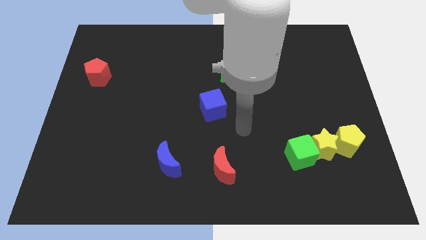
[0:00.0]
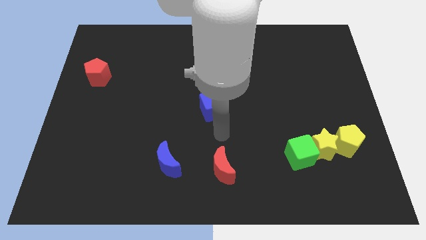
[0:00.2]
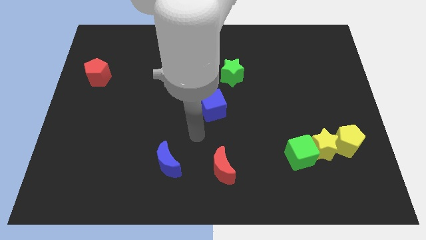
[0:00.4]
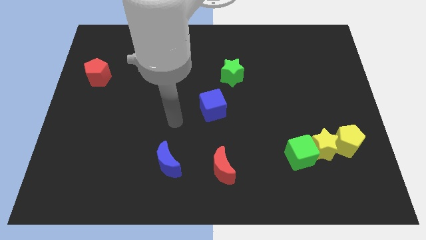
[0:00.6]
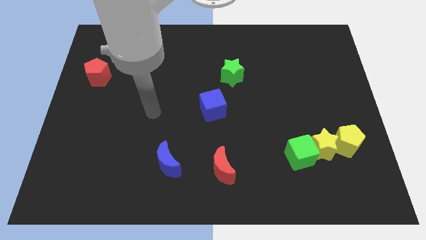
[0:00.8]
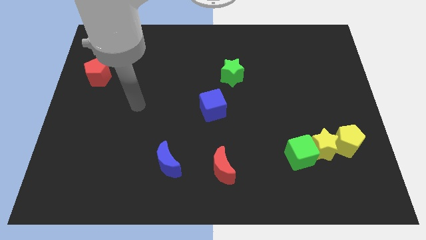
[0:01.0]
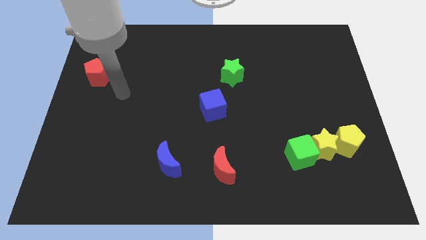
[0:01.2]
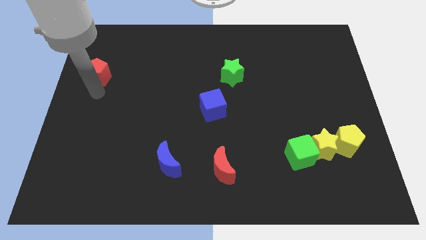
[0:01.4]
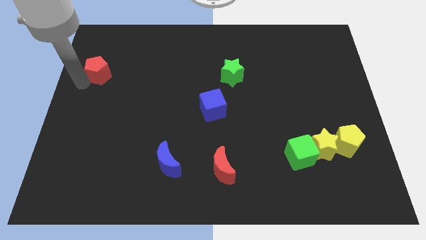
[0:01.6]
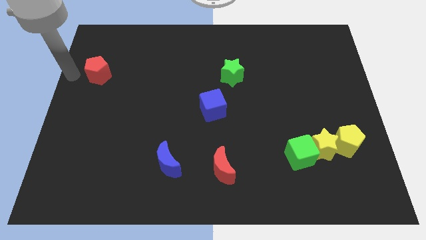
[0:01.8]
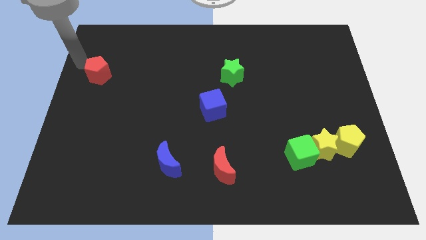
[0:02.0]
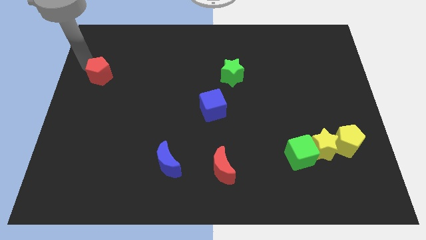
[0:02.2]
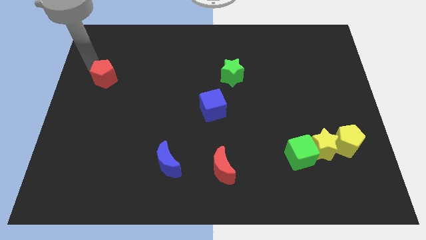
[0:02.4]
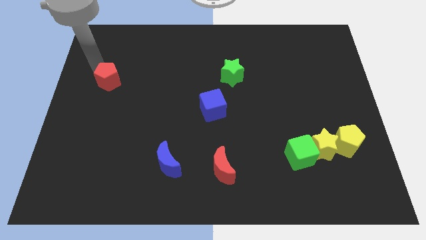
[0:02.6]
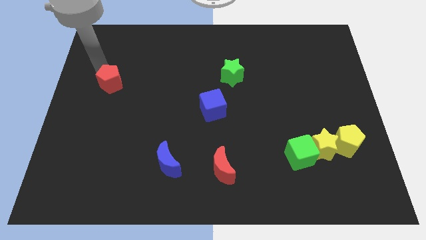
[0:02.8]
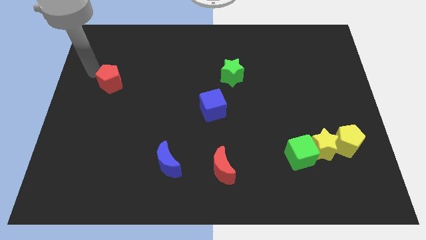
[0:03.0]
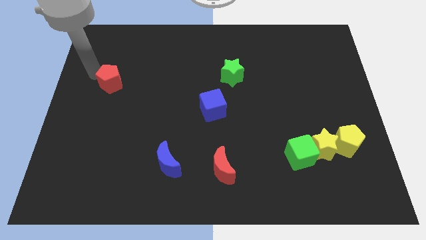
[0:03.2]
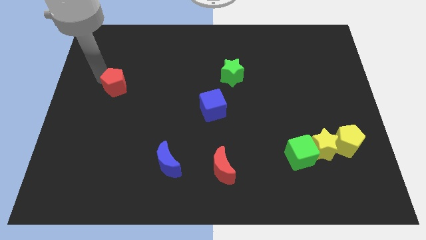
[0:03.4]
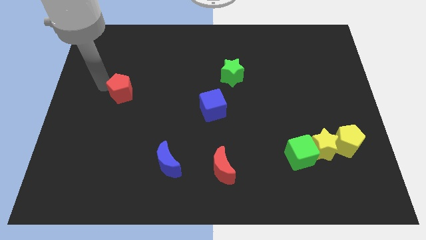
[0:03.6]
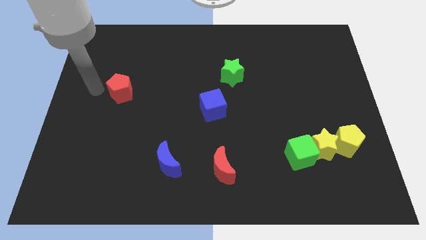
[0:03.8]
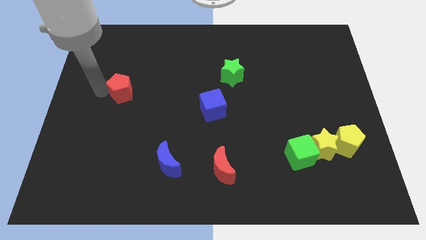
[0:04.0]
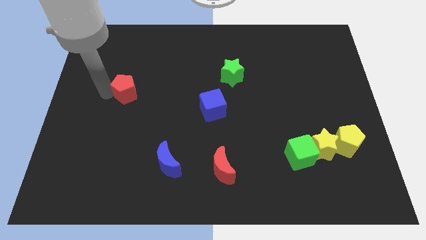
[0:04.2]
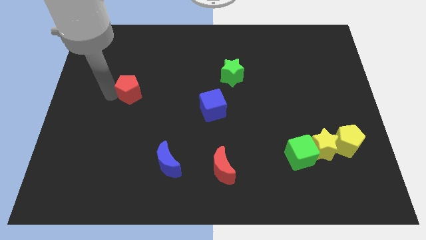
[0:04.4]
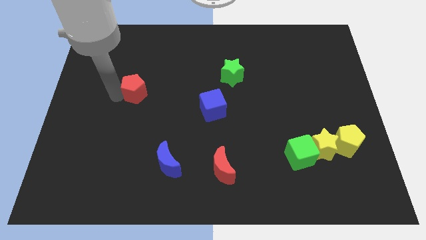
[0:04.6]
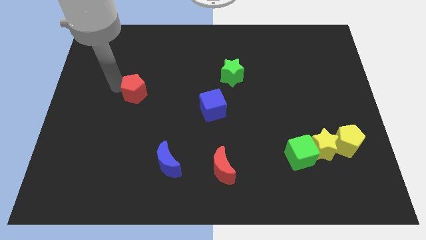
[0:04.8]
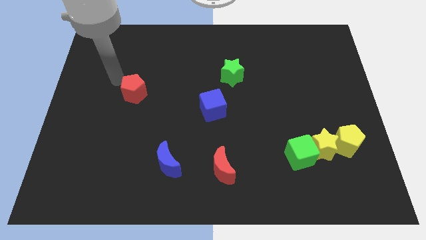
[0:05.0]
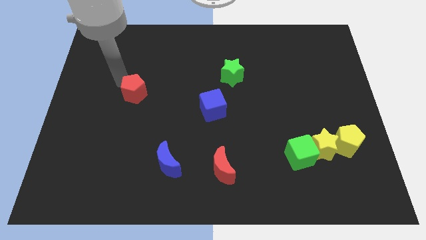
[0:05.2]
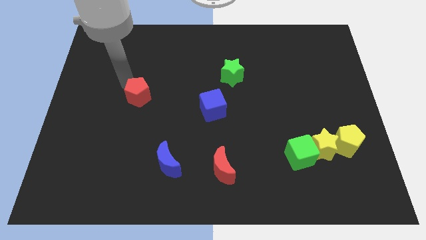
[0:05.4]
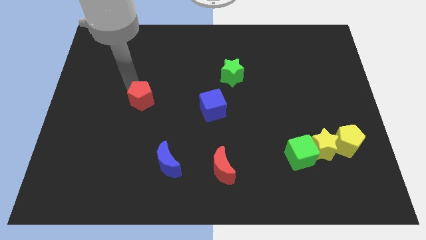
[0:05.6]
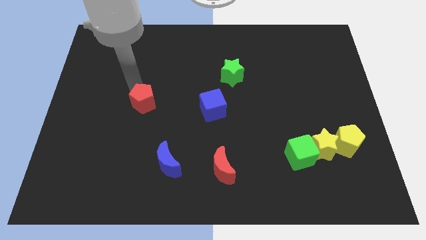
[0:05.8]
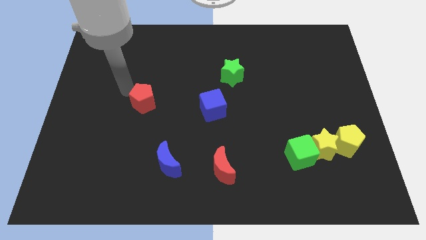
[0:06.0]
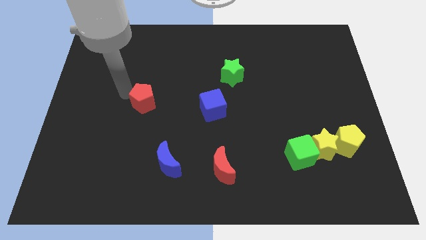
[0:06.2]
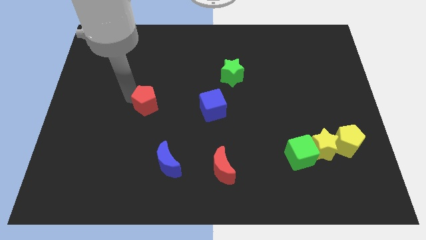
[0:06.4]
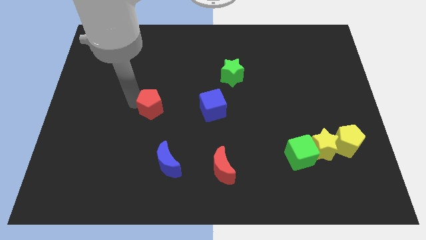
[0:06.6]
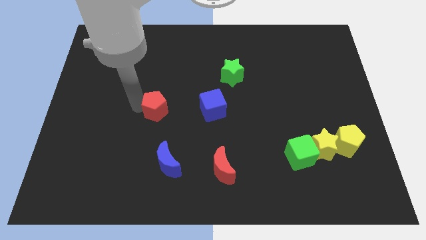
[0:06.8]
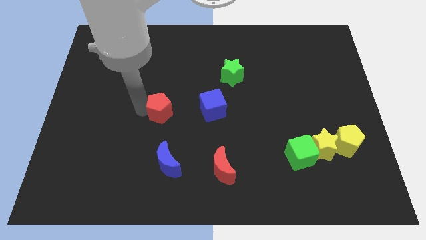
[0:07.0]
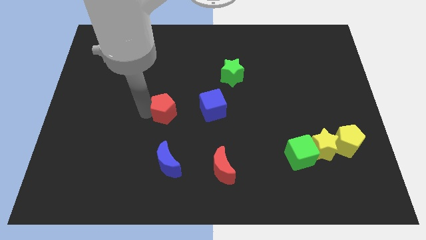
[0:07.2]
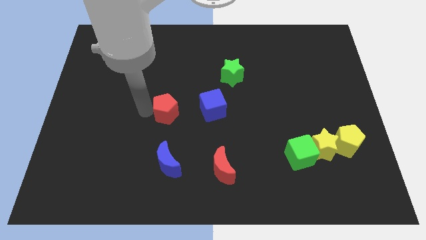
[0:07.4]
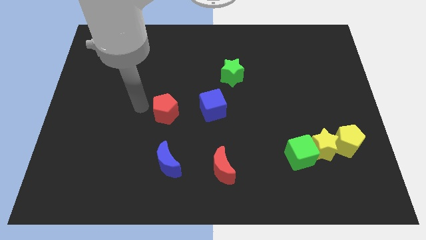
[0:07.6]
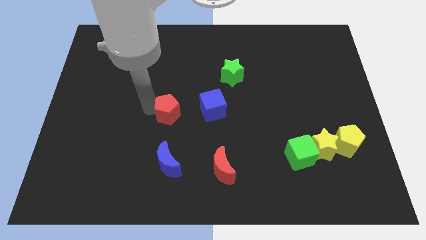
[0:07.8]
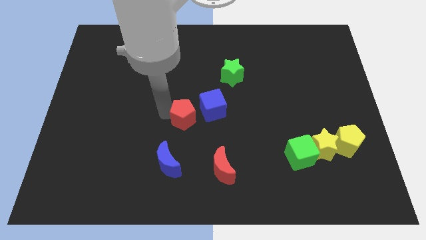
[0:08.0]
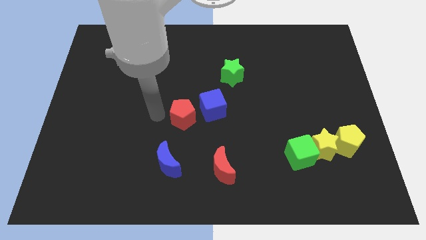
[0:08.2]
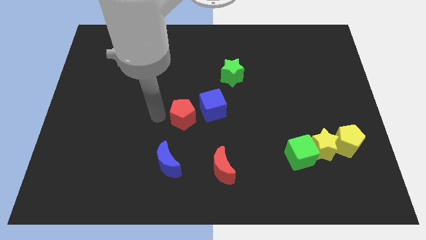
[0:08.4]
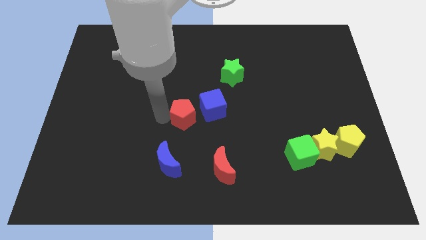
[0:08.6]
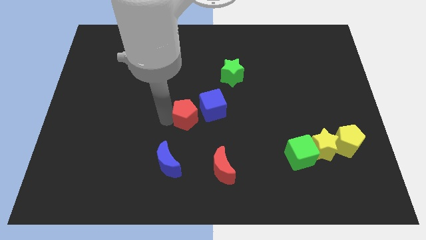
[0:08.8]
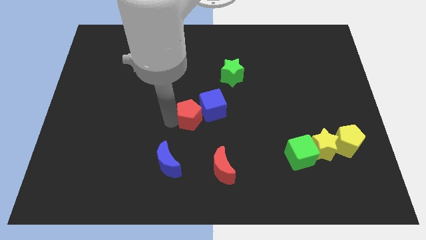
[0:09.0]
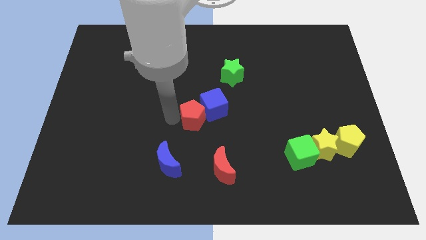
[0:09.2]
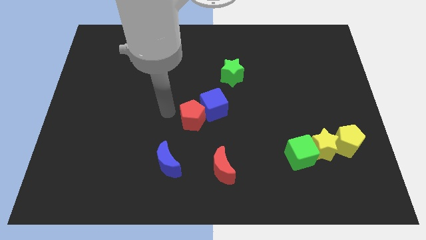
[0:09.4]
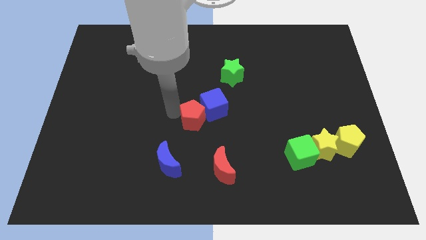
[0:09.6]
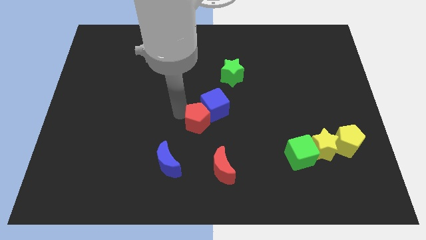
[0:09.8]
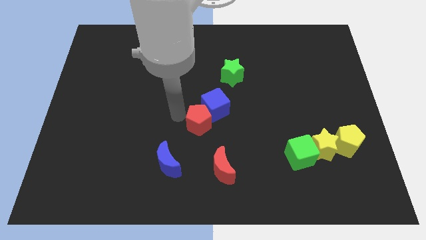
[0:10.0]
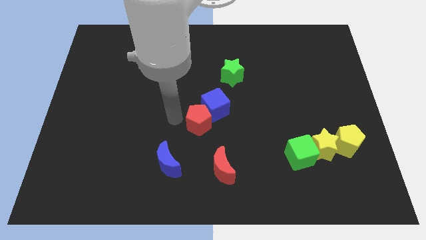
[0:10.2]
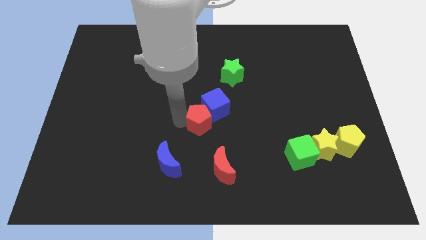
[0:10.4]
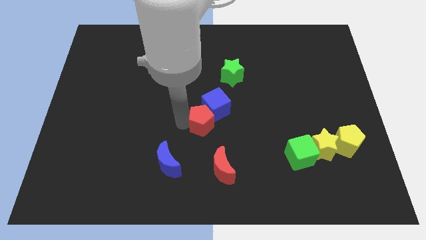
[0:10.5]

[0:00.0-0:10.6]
slide the red pentagon to the top of the red moon

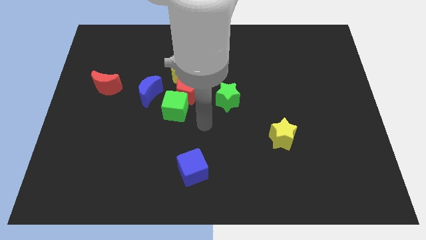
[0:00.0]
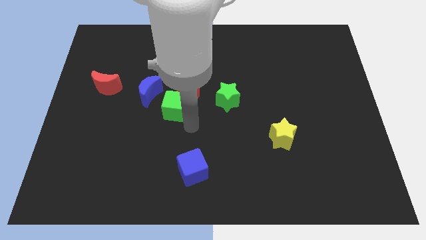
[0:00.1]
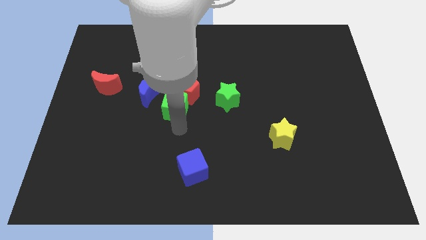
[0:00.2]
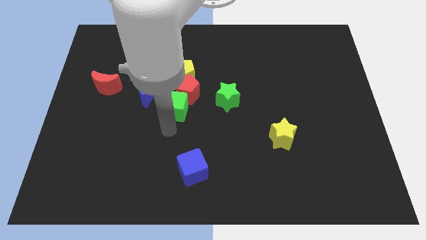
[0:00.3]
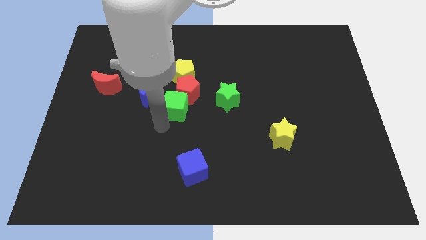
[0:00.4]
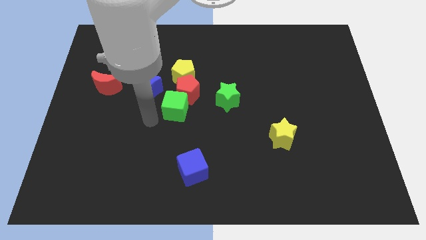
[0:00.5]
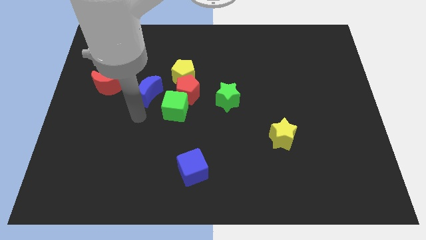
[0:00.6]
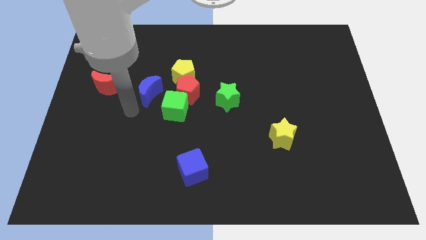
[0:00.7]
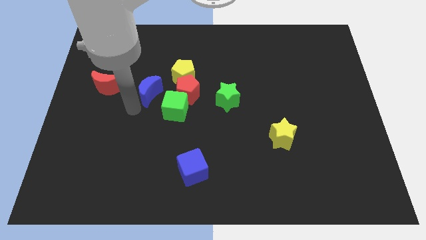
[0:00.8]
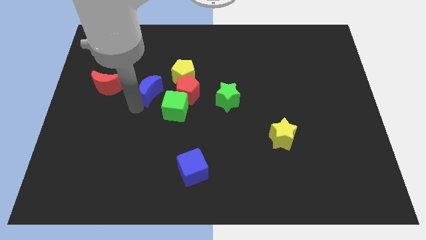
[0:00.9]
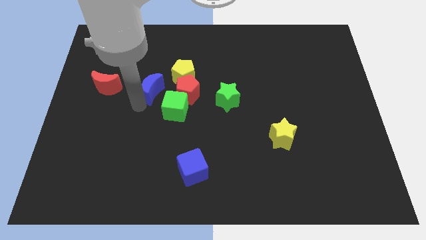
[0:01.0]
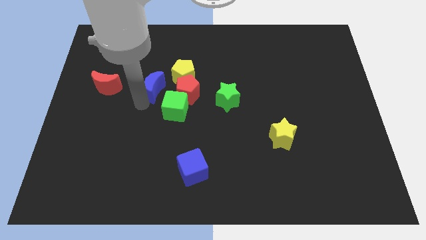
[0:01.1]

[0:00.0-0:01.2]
push the blue moon to the top left of the red pentagon
